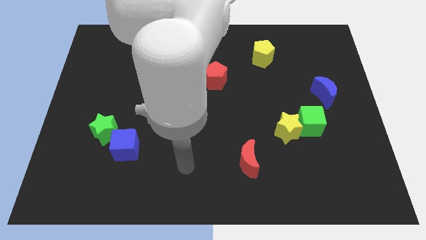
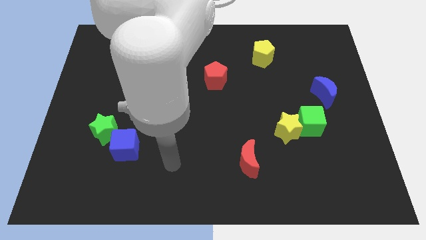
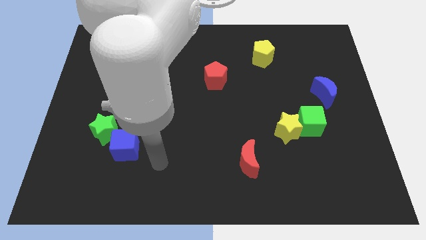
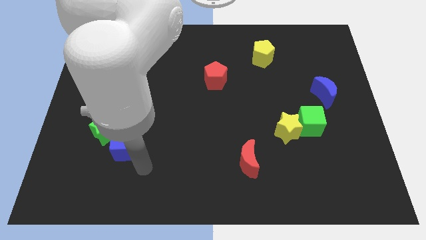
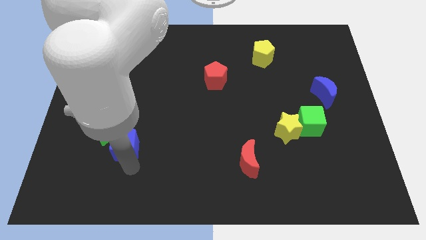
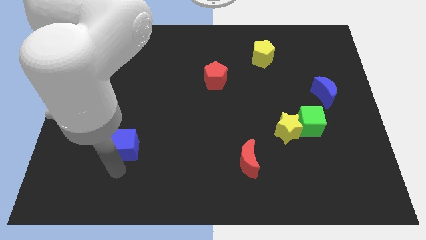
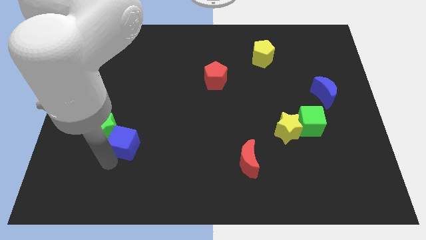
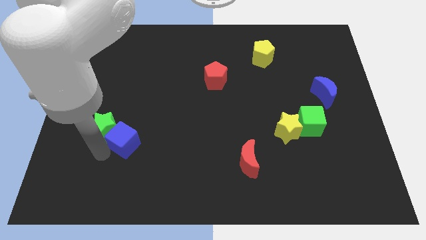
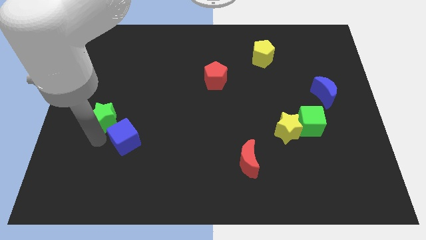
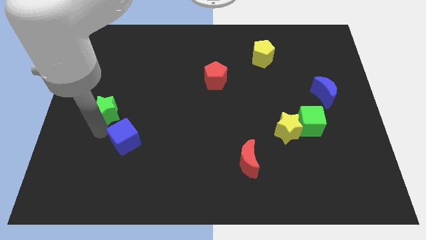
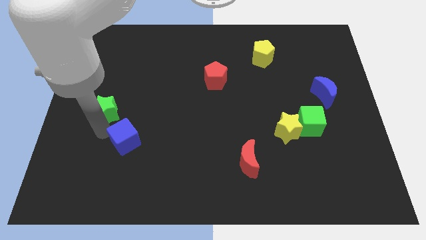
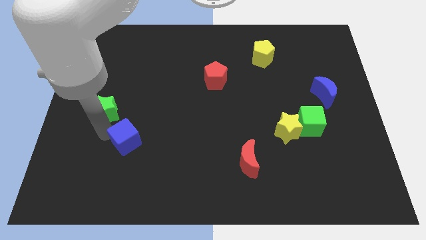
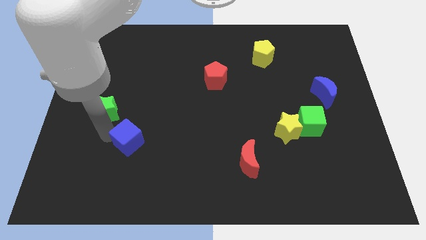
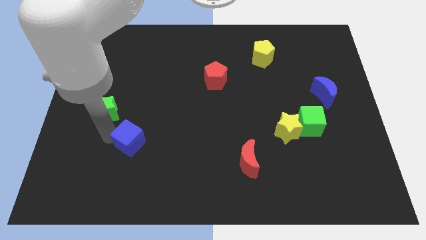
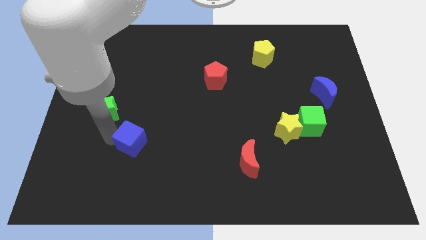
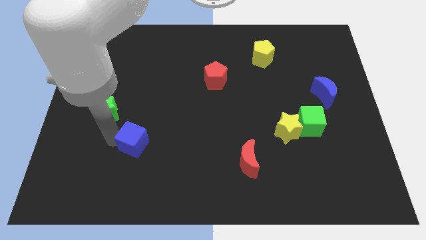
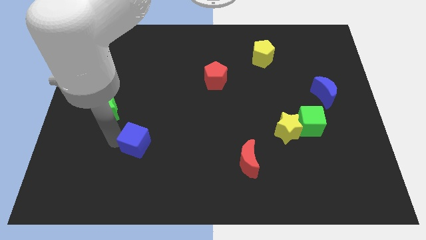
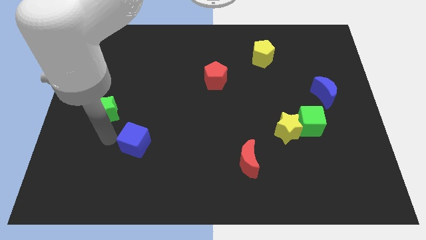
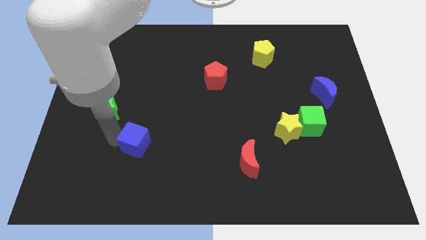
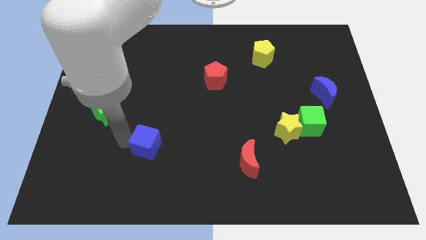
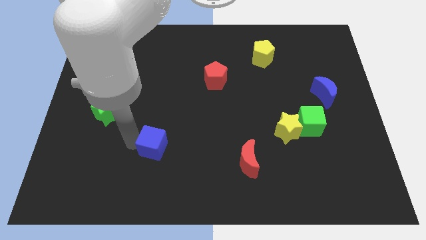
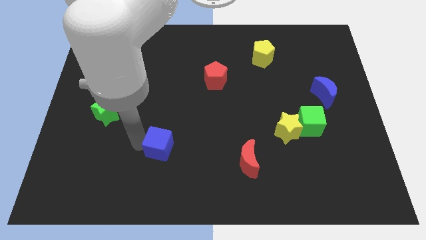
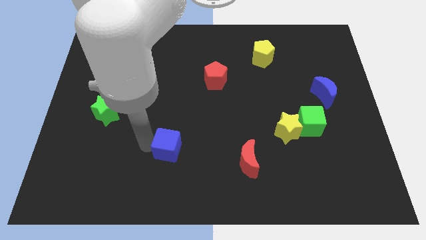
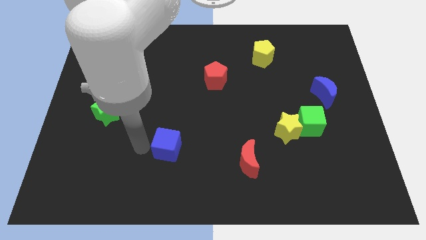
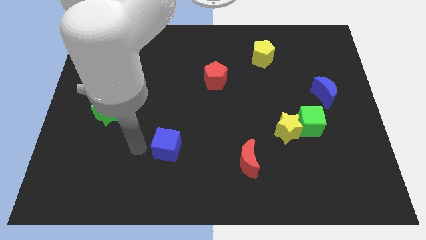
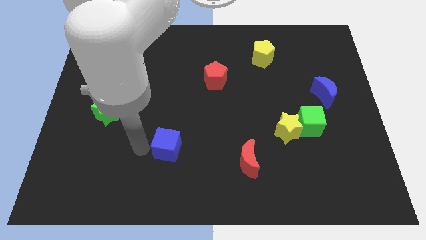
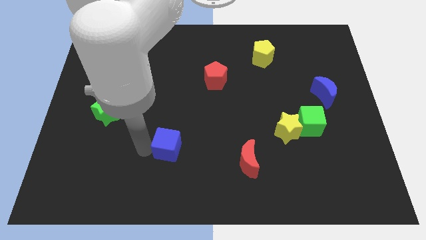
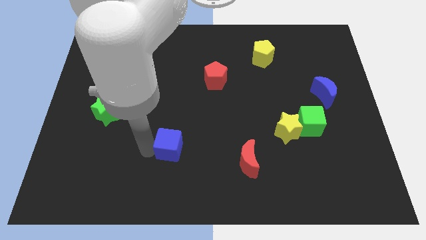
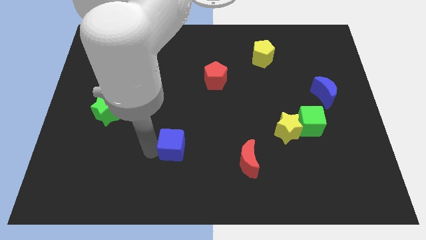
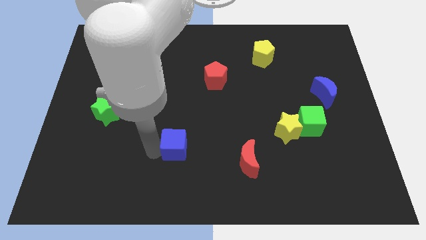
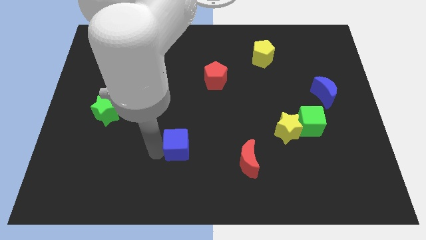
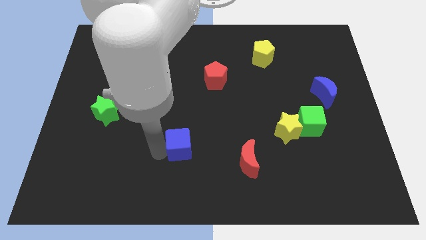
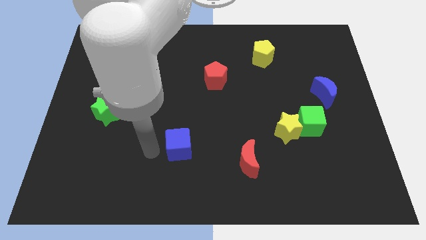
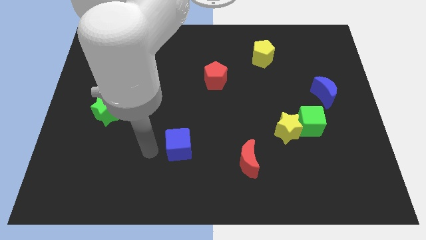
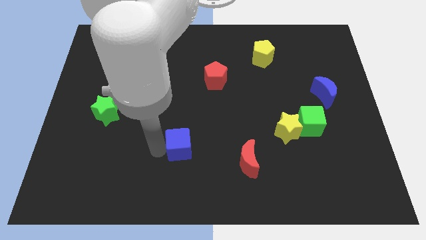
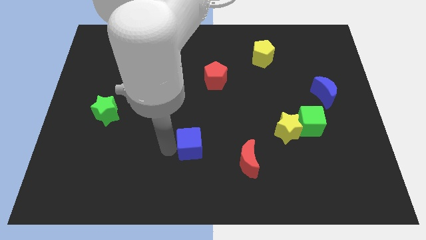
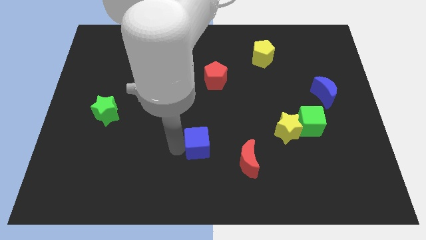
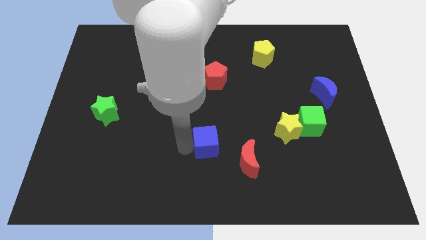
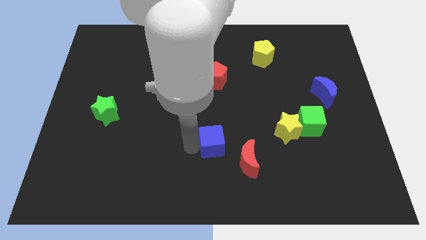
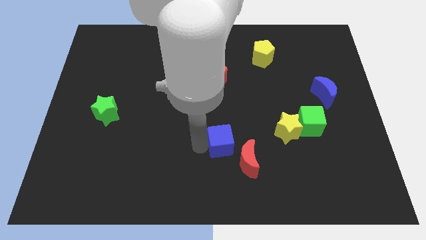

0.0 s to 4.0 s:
slide the blue cube to the right

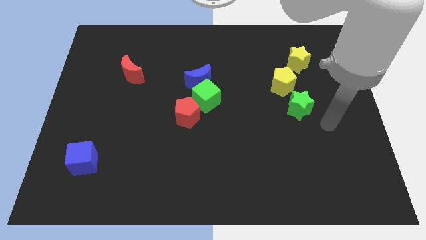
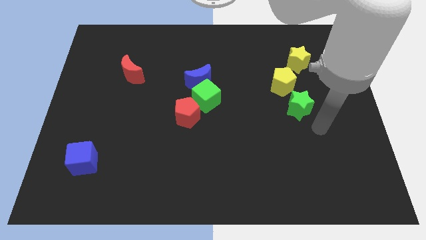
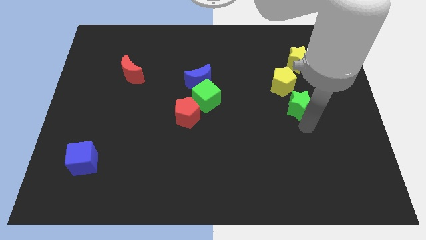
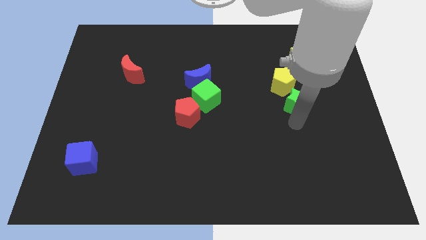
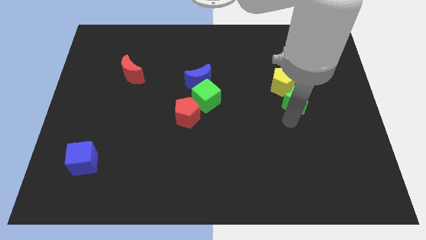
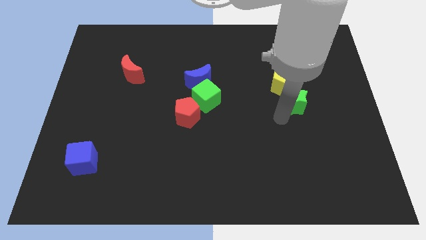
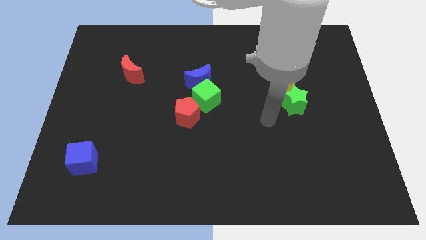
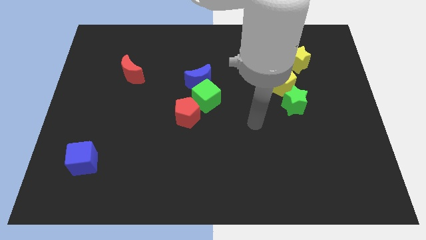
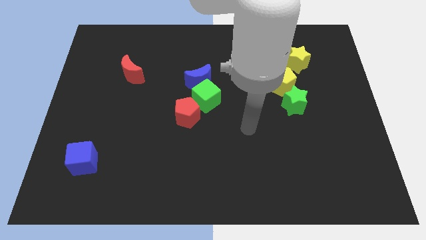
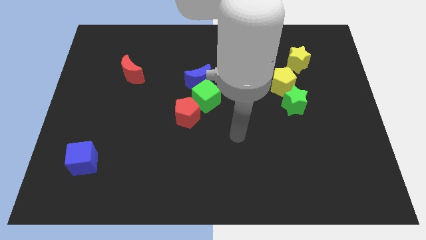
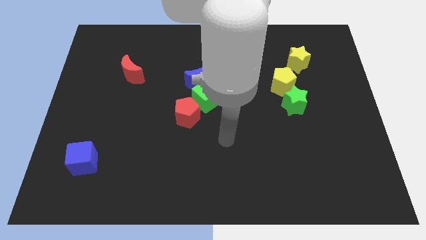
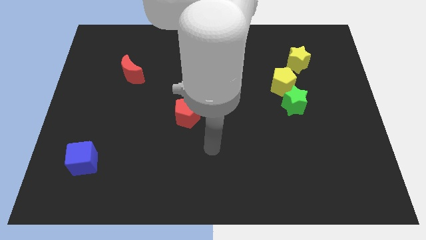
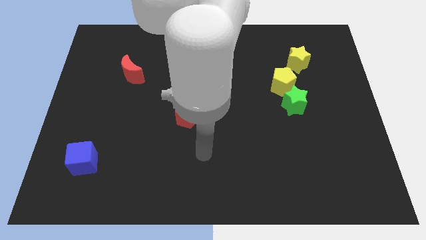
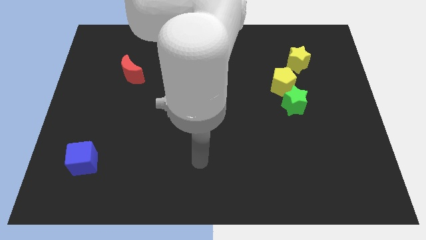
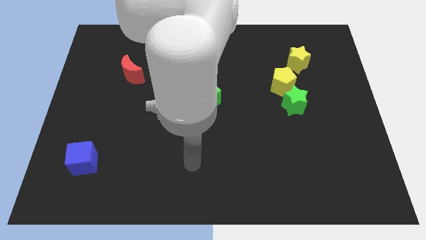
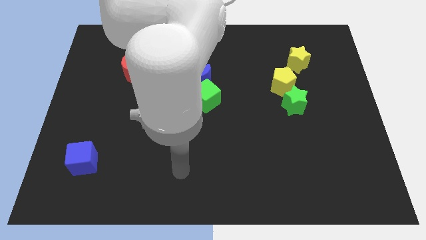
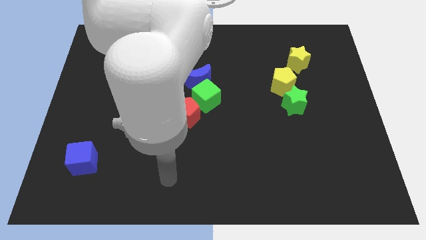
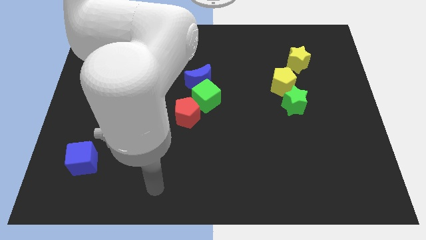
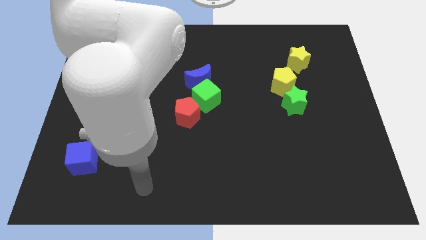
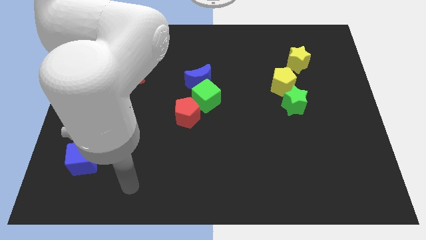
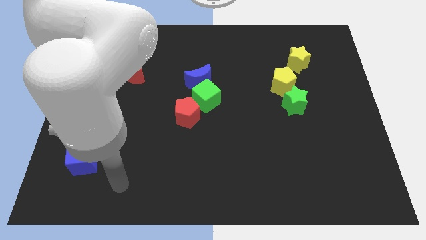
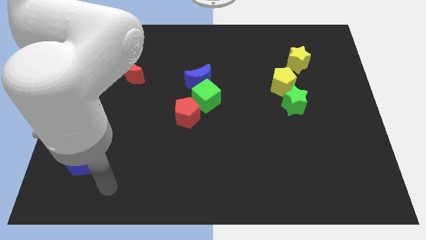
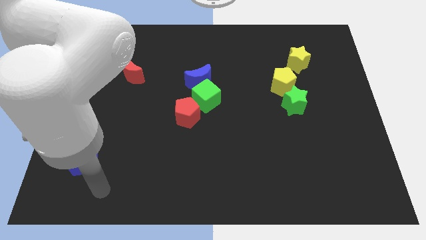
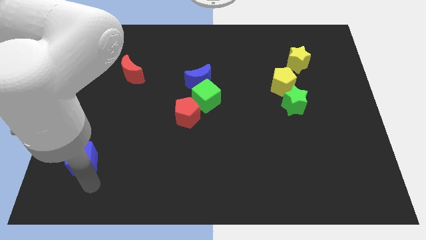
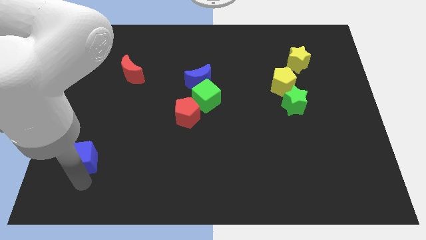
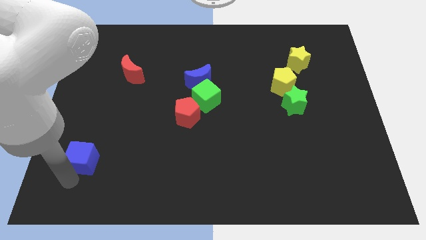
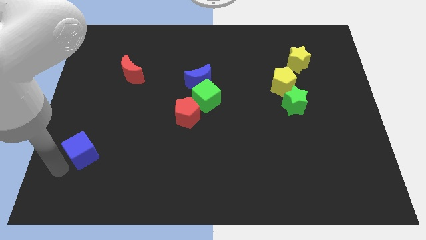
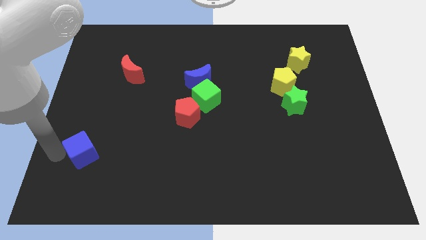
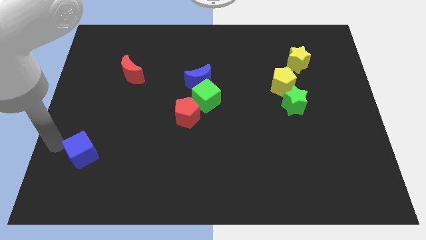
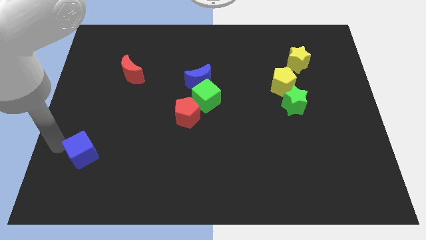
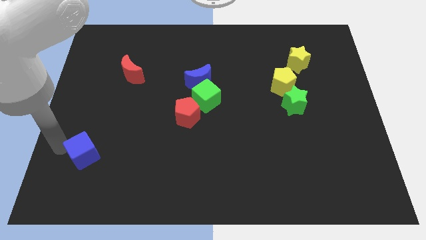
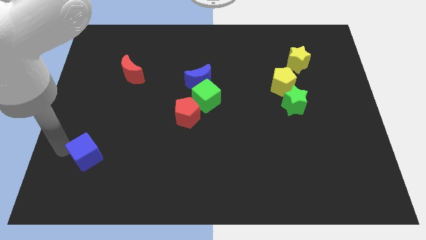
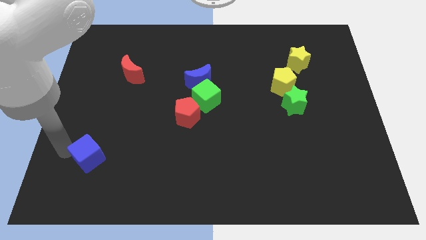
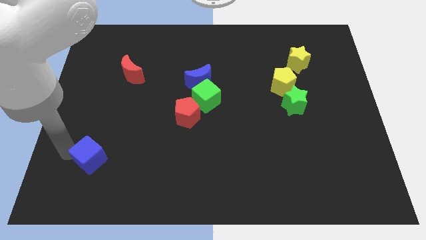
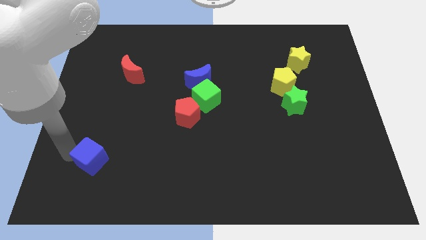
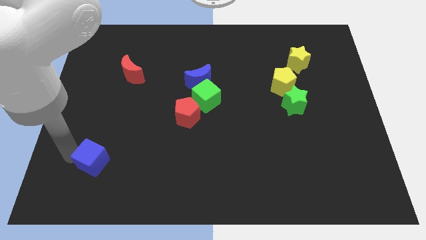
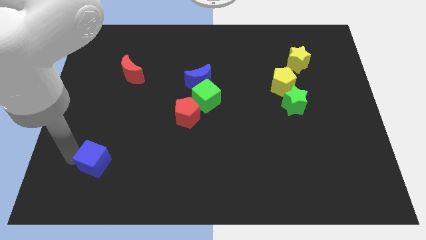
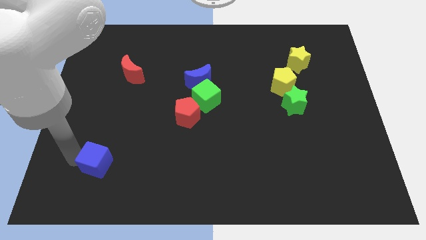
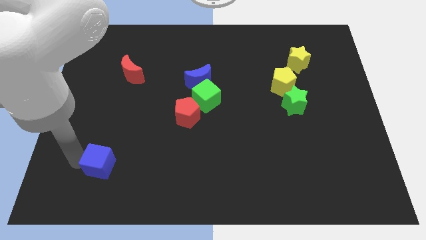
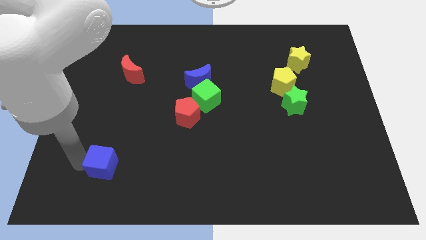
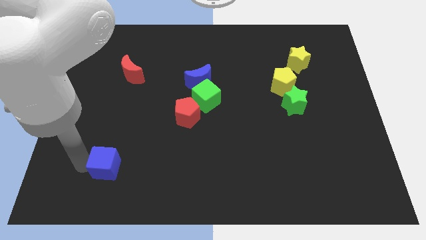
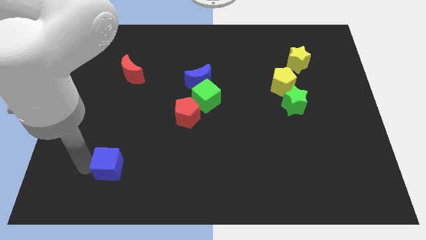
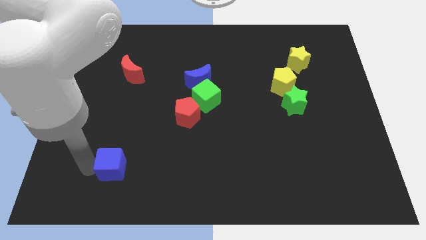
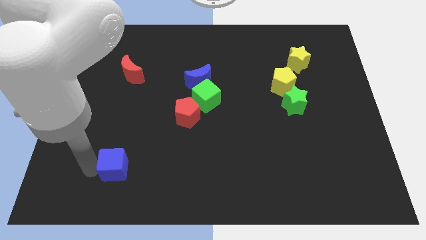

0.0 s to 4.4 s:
slightly slide the blue cube right
